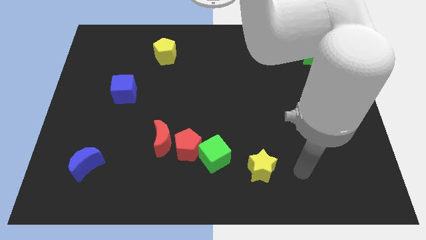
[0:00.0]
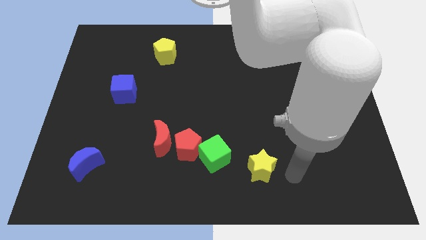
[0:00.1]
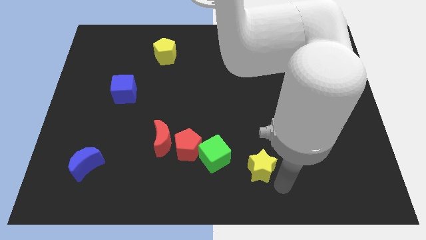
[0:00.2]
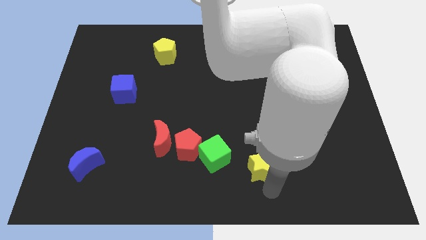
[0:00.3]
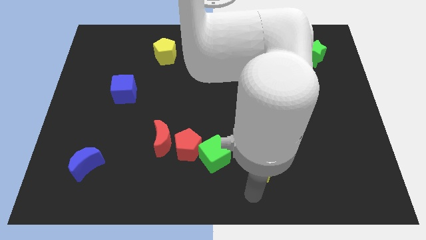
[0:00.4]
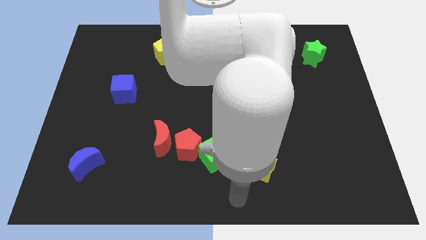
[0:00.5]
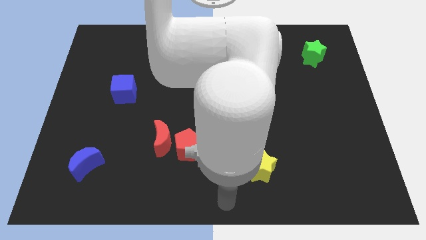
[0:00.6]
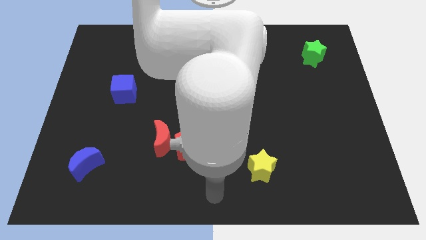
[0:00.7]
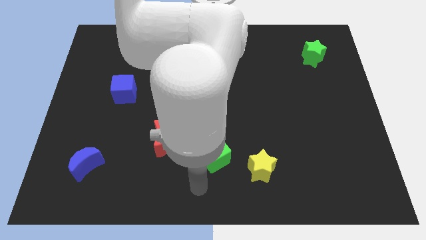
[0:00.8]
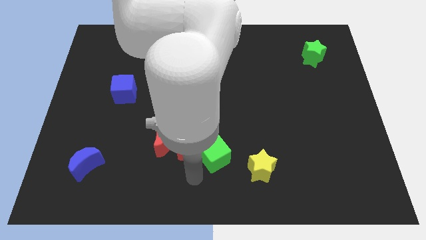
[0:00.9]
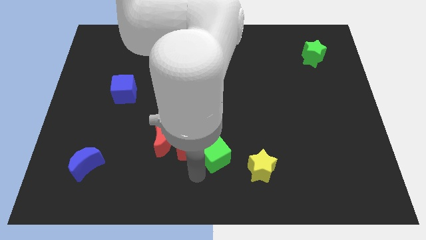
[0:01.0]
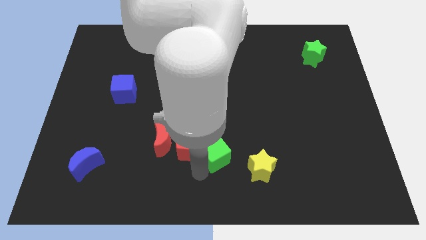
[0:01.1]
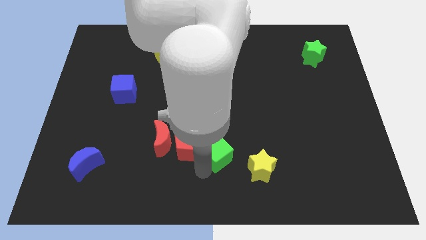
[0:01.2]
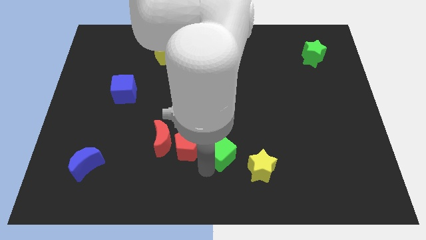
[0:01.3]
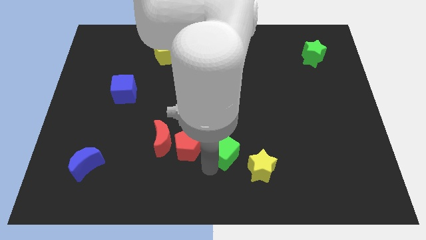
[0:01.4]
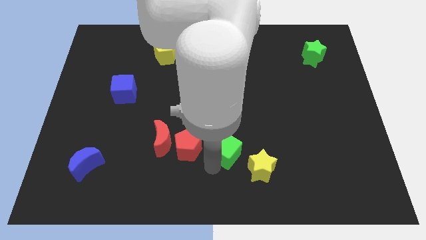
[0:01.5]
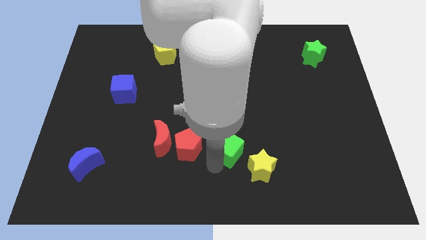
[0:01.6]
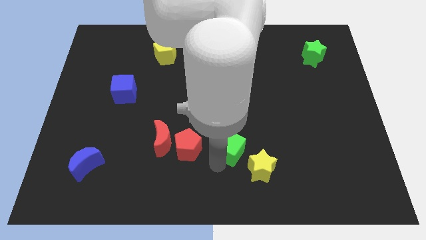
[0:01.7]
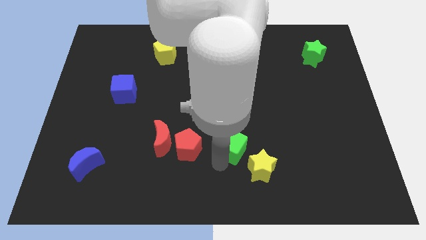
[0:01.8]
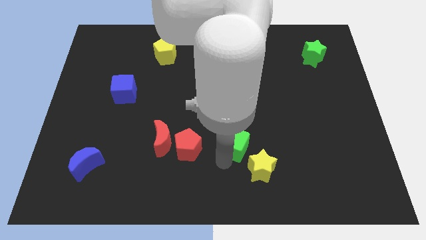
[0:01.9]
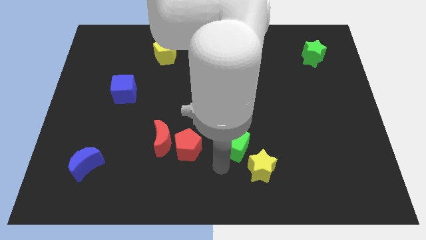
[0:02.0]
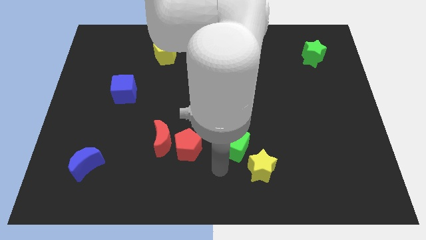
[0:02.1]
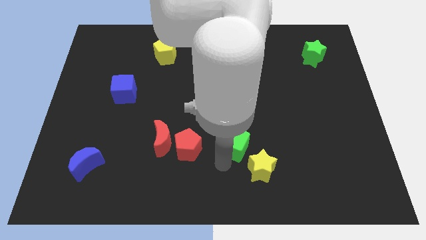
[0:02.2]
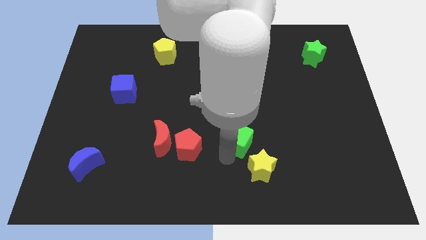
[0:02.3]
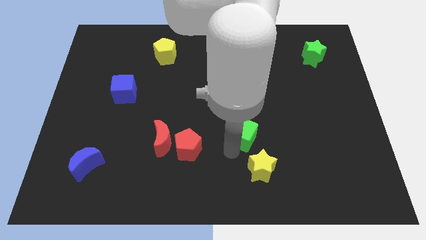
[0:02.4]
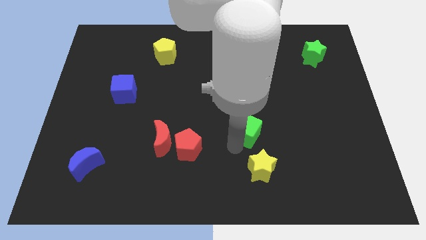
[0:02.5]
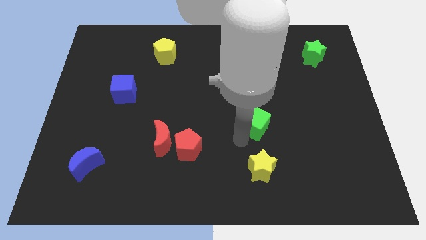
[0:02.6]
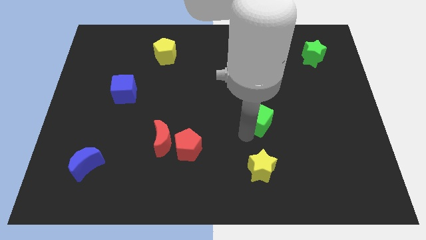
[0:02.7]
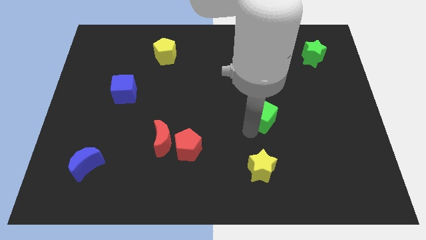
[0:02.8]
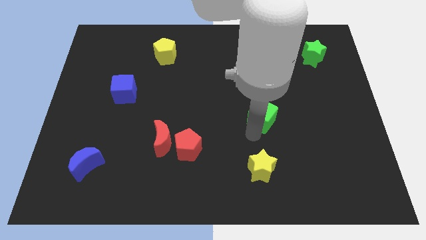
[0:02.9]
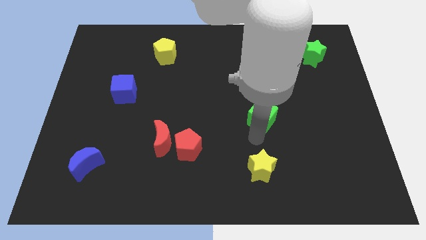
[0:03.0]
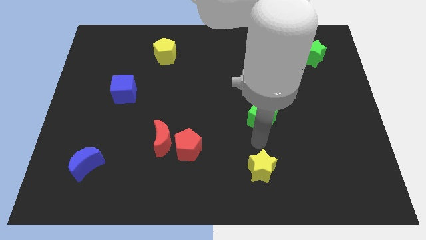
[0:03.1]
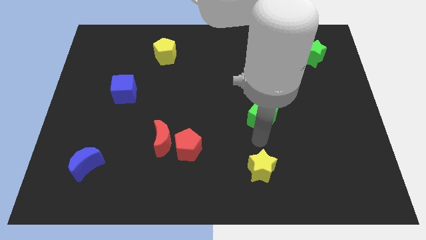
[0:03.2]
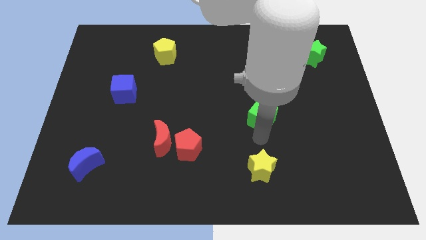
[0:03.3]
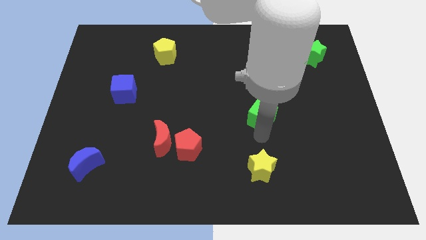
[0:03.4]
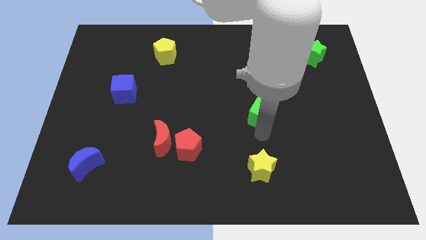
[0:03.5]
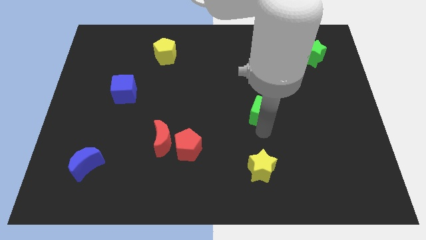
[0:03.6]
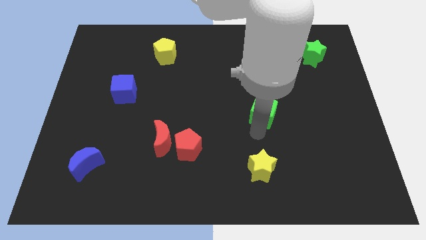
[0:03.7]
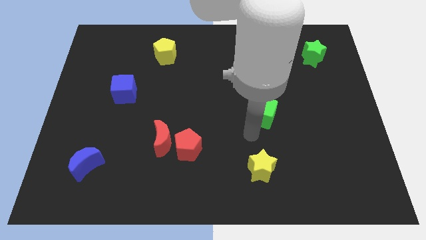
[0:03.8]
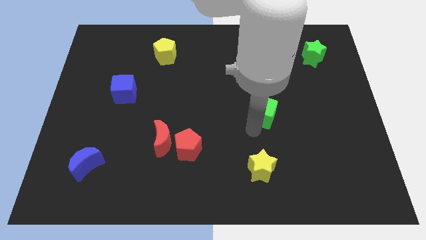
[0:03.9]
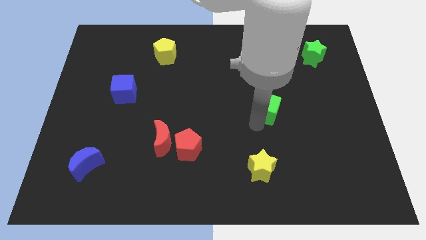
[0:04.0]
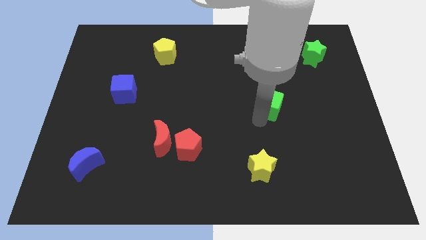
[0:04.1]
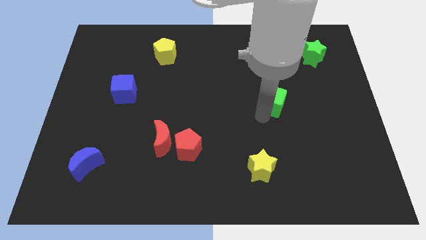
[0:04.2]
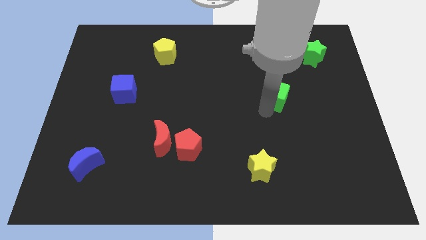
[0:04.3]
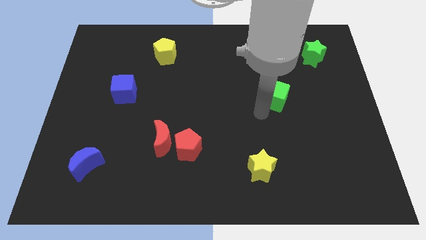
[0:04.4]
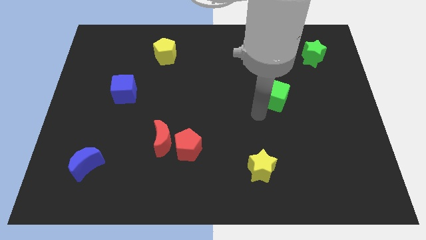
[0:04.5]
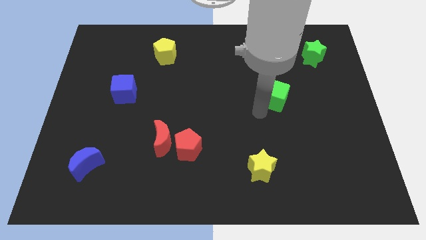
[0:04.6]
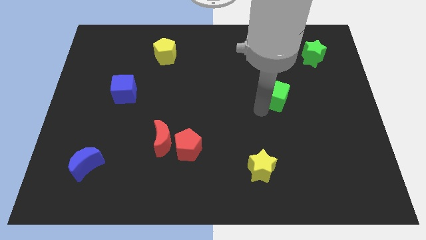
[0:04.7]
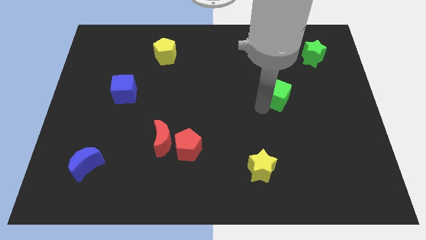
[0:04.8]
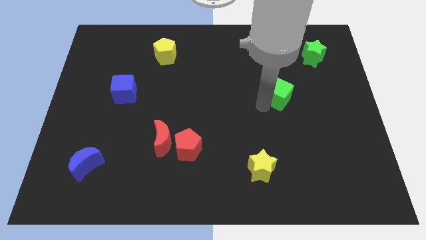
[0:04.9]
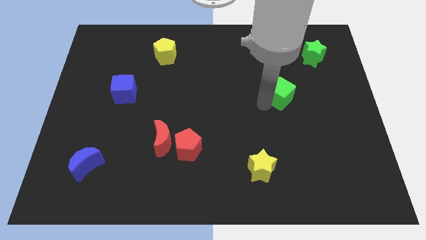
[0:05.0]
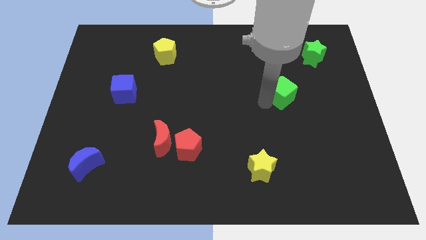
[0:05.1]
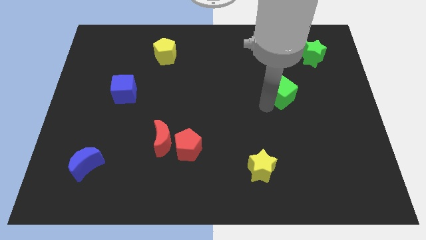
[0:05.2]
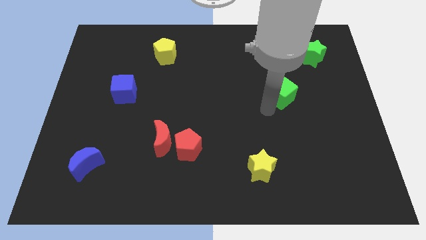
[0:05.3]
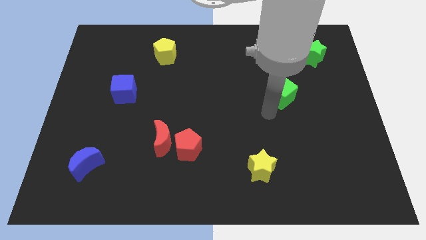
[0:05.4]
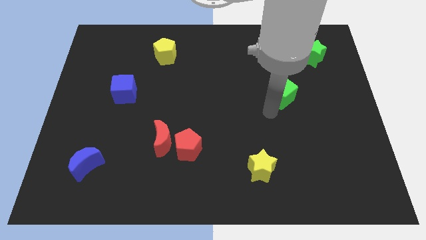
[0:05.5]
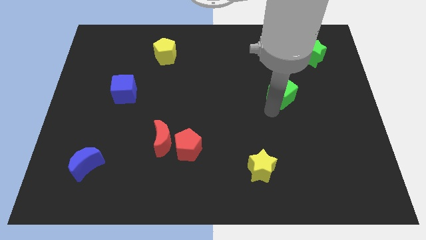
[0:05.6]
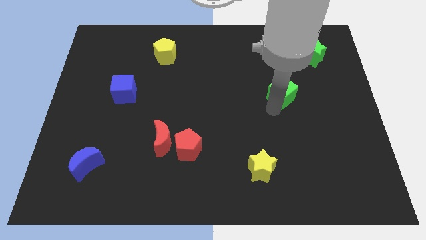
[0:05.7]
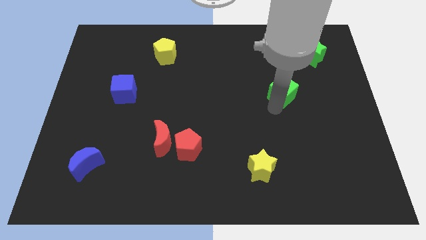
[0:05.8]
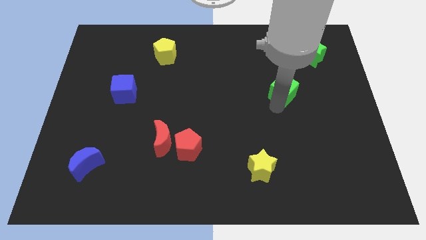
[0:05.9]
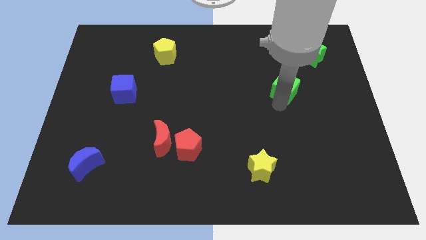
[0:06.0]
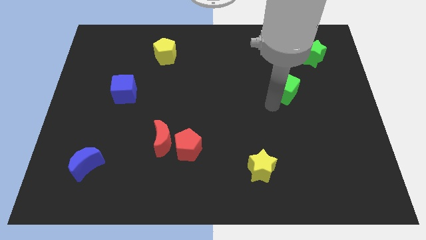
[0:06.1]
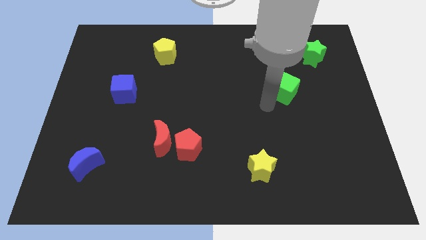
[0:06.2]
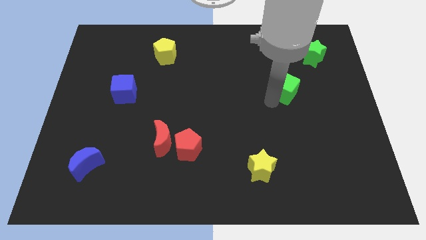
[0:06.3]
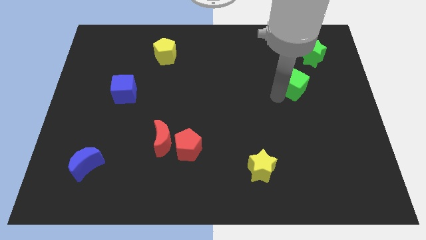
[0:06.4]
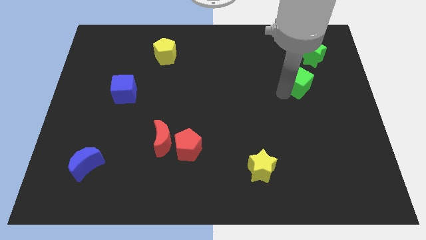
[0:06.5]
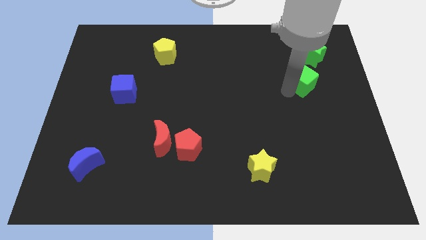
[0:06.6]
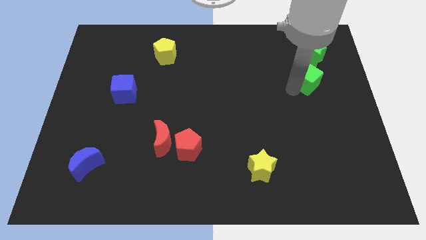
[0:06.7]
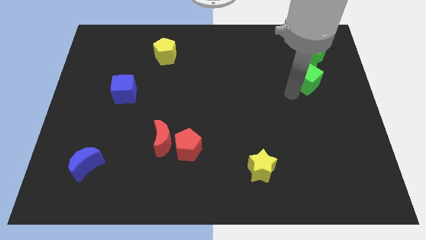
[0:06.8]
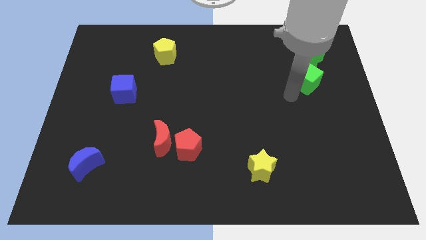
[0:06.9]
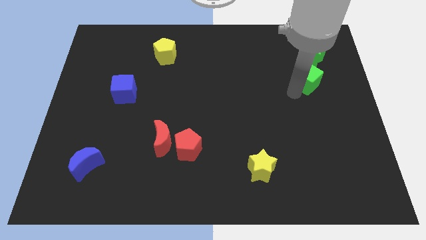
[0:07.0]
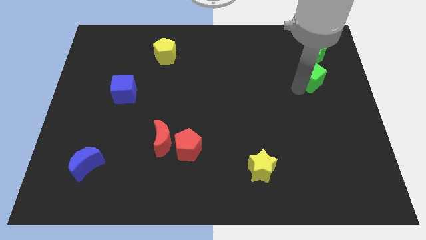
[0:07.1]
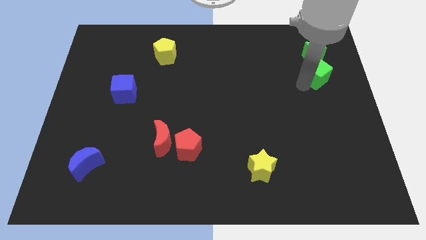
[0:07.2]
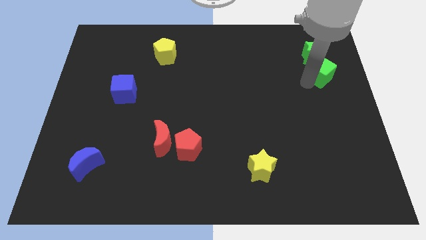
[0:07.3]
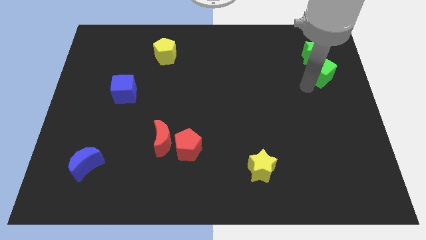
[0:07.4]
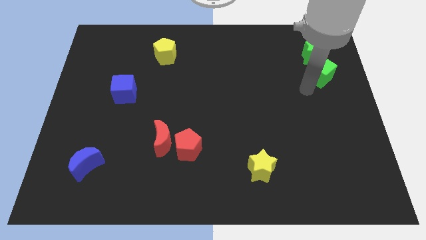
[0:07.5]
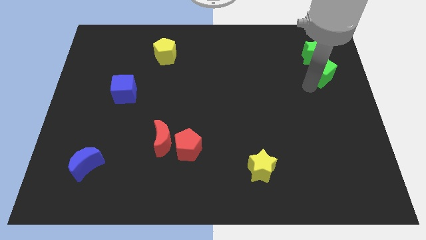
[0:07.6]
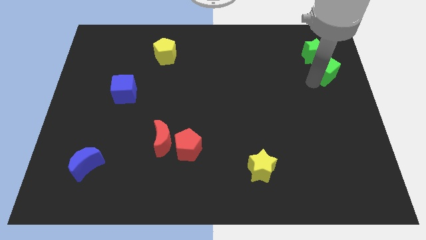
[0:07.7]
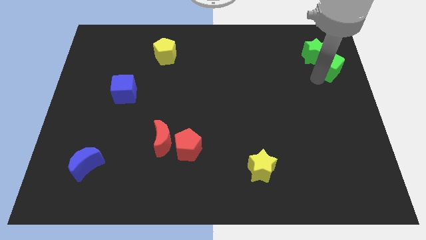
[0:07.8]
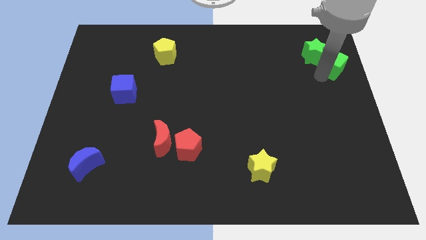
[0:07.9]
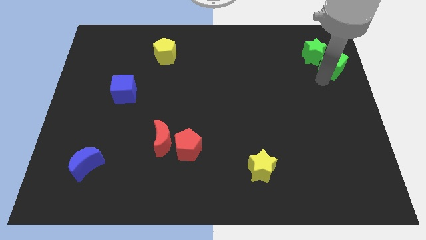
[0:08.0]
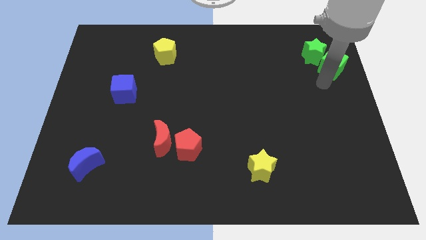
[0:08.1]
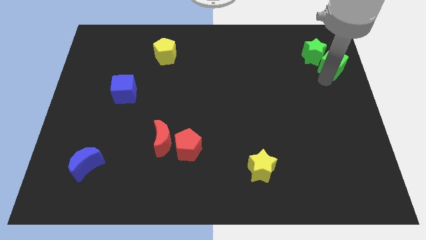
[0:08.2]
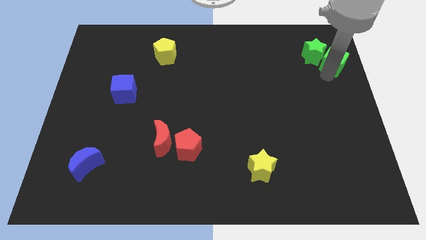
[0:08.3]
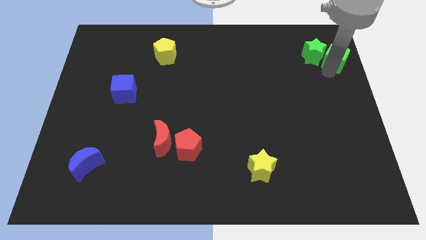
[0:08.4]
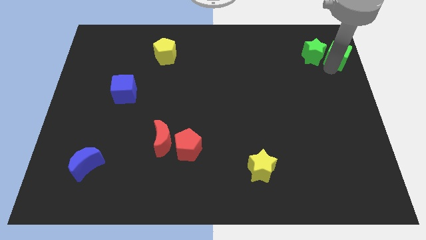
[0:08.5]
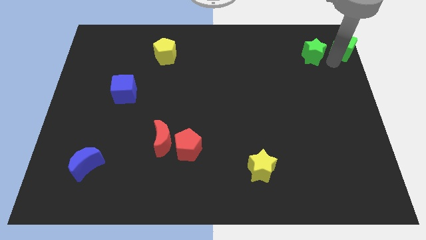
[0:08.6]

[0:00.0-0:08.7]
push the green cube to the upper right corner
